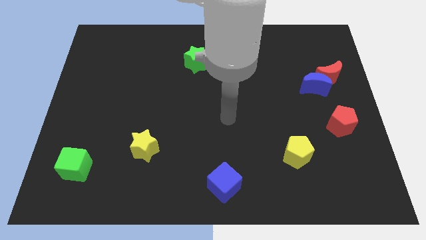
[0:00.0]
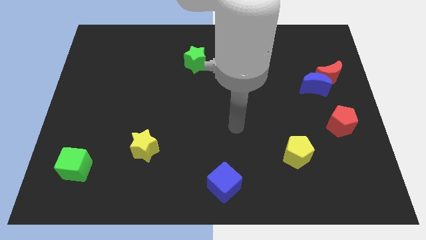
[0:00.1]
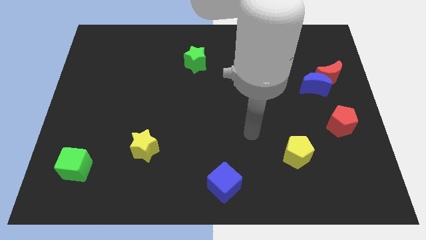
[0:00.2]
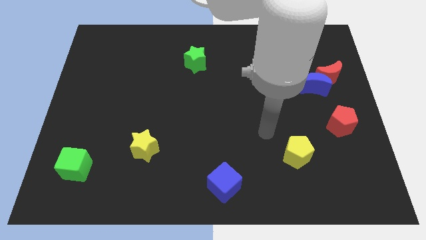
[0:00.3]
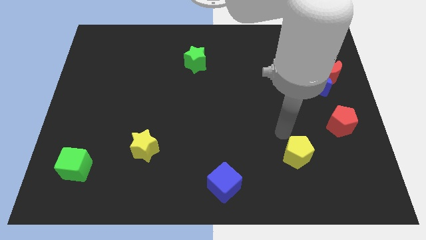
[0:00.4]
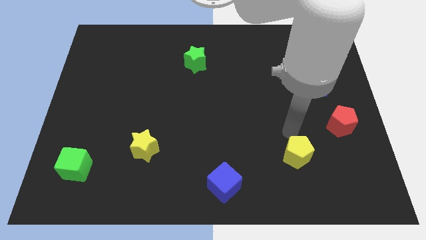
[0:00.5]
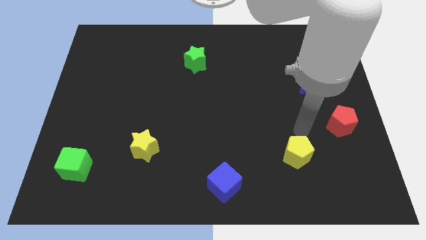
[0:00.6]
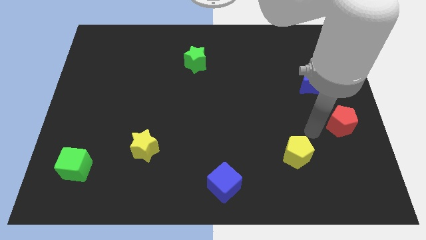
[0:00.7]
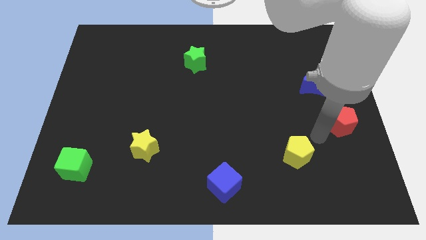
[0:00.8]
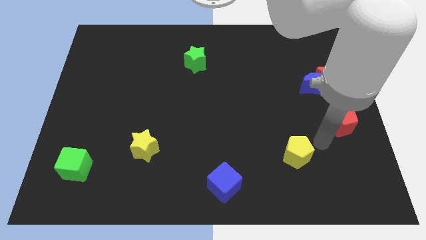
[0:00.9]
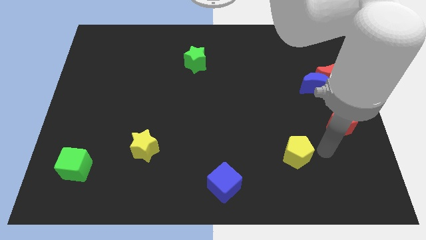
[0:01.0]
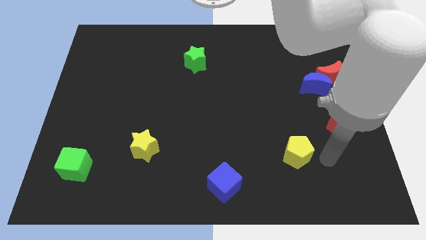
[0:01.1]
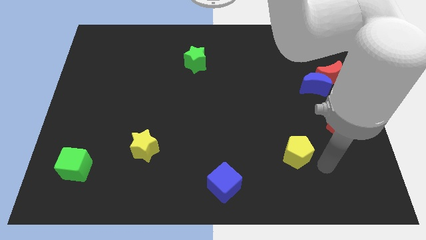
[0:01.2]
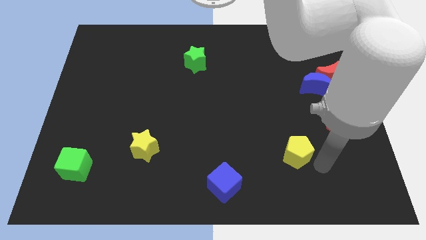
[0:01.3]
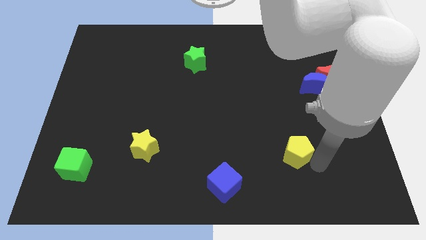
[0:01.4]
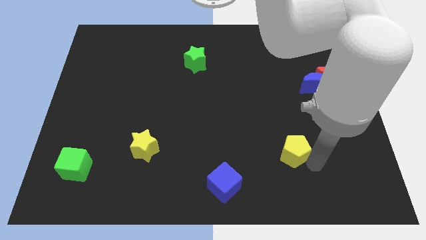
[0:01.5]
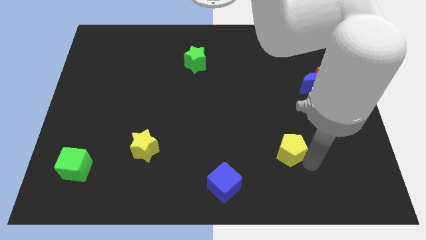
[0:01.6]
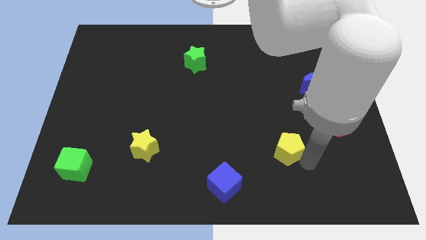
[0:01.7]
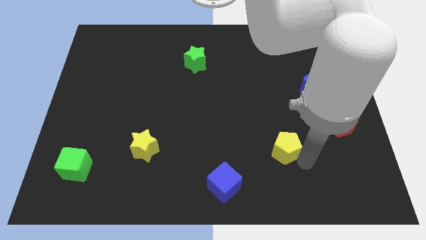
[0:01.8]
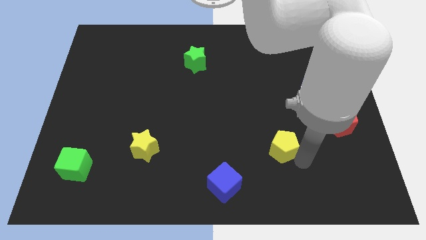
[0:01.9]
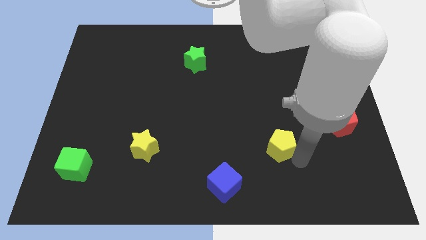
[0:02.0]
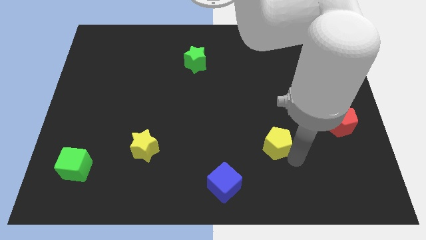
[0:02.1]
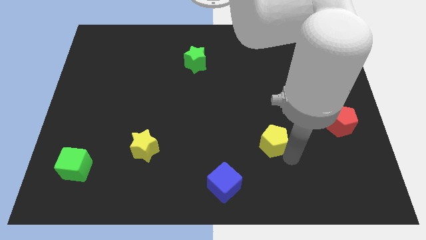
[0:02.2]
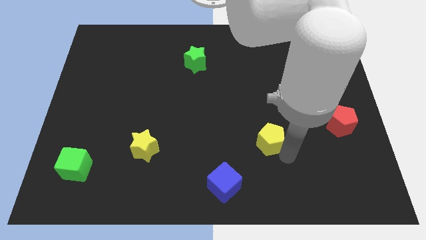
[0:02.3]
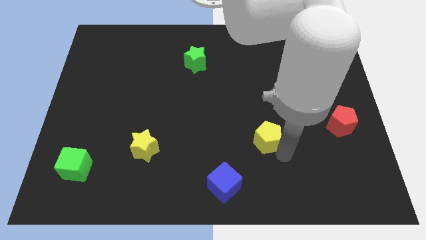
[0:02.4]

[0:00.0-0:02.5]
push the yellow pentagon a bit up and left diagonally

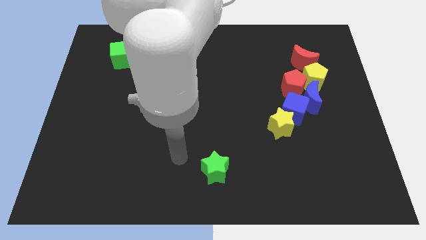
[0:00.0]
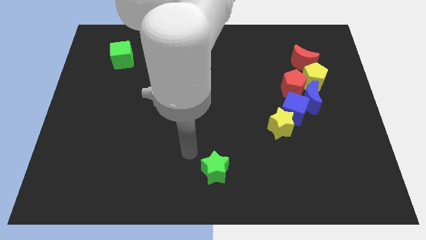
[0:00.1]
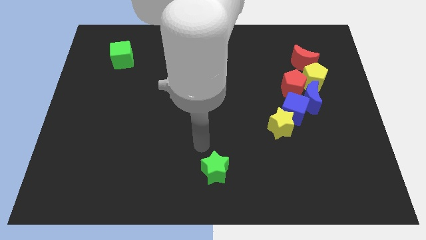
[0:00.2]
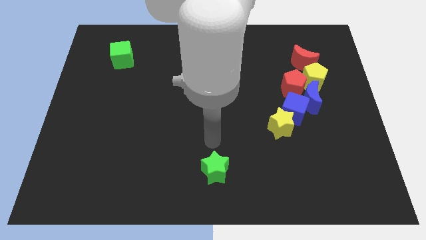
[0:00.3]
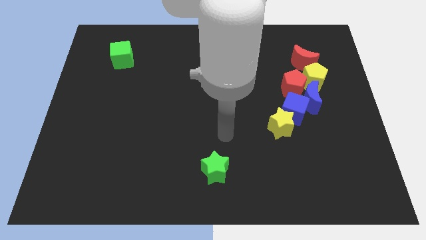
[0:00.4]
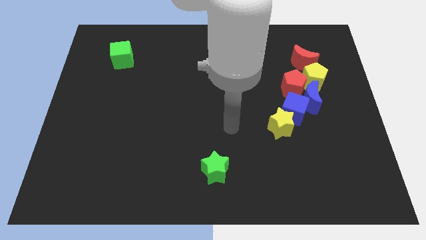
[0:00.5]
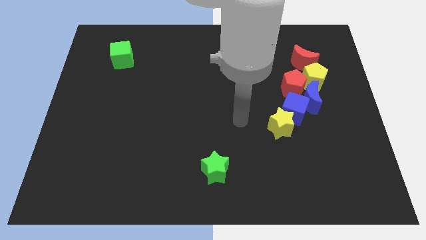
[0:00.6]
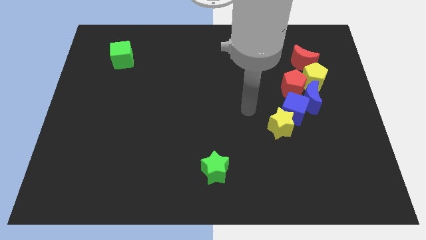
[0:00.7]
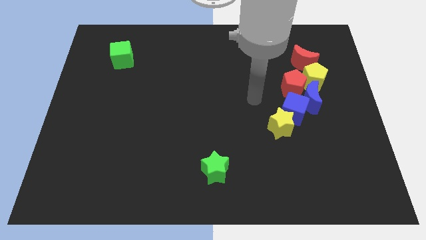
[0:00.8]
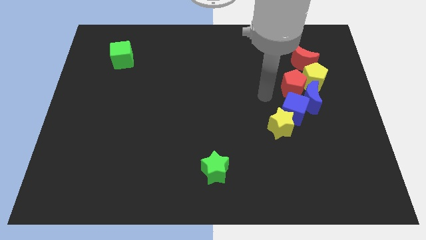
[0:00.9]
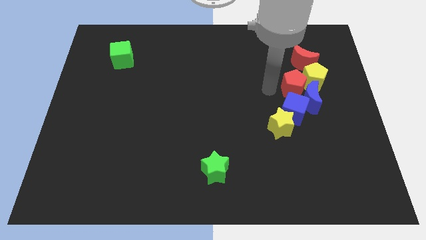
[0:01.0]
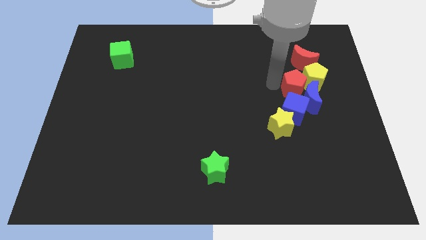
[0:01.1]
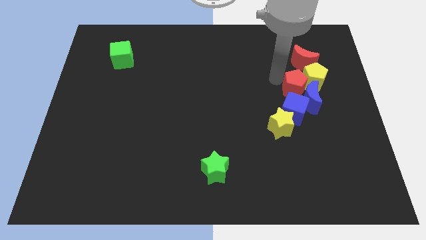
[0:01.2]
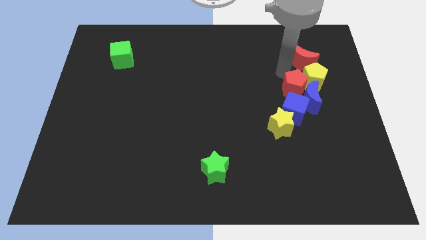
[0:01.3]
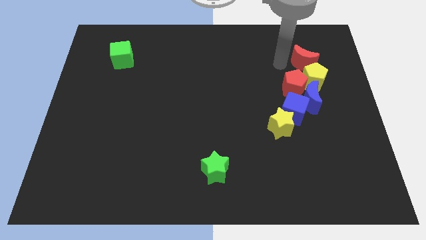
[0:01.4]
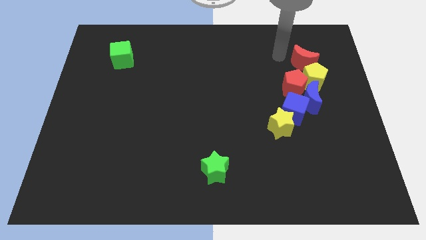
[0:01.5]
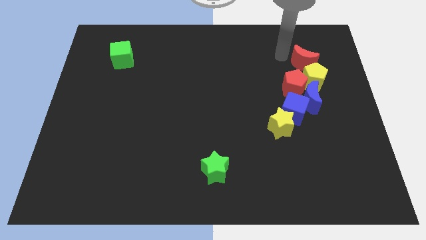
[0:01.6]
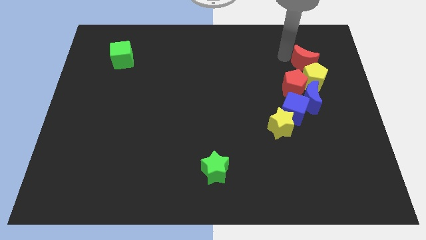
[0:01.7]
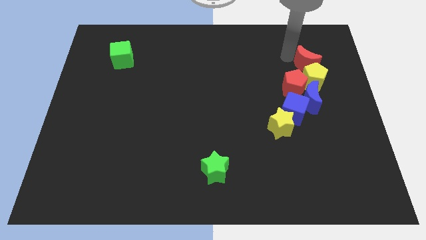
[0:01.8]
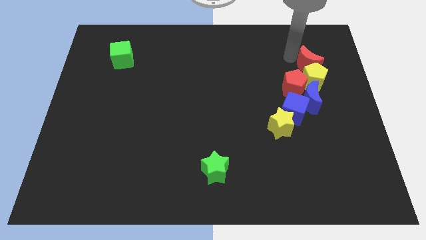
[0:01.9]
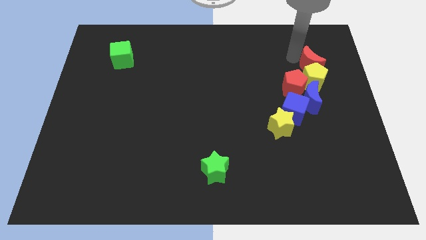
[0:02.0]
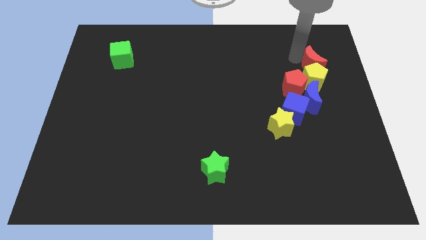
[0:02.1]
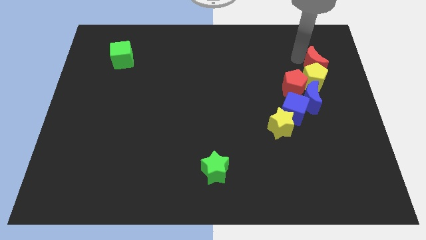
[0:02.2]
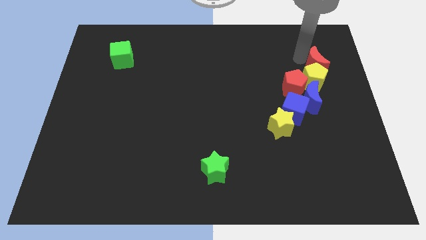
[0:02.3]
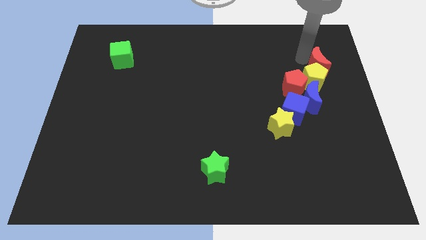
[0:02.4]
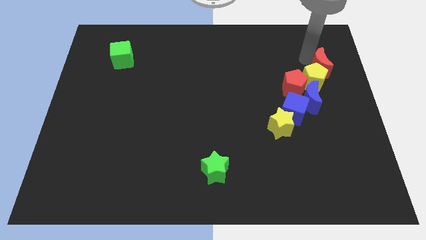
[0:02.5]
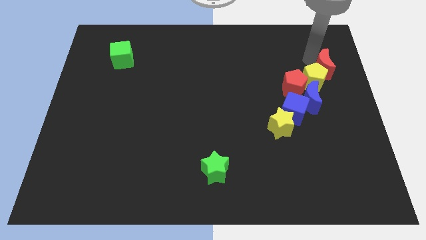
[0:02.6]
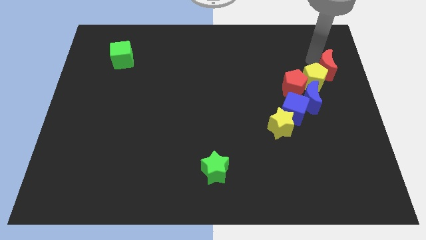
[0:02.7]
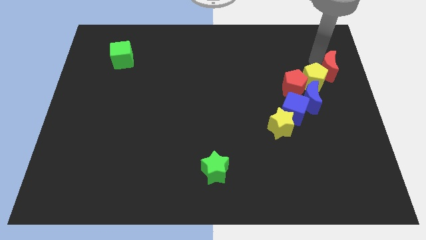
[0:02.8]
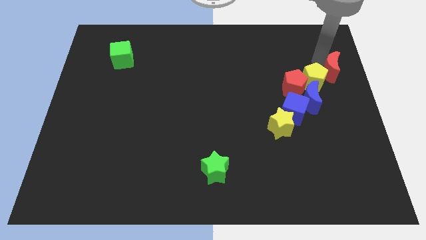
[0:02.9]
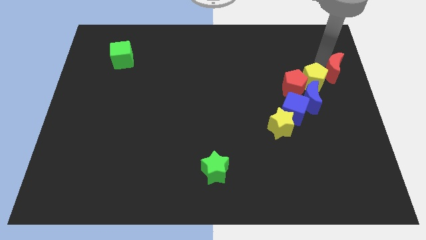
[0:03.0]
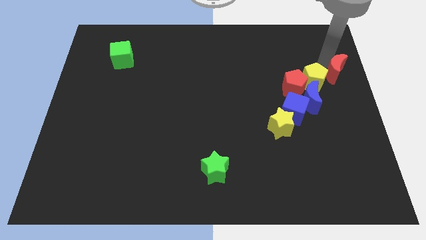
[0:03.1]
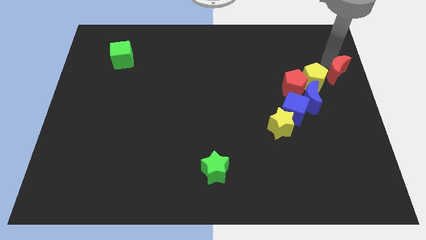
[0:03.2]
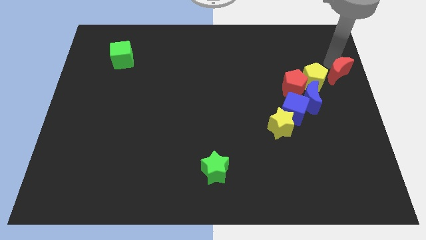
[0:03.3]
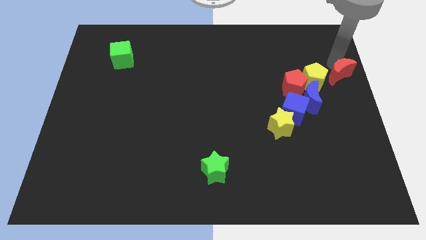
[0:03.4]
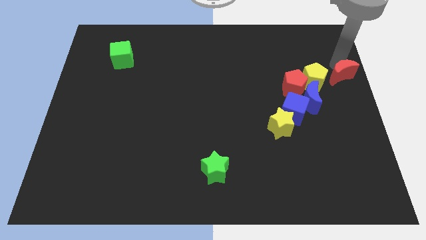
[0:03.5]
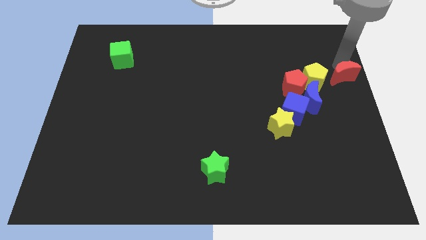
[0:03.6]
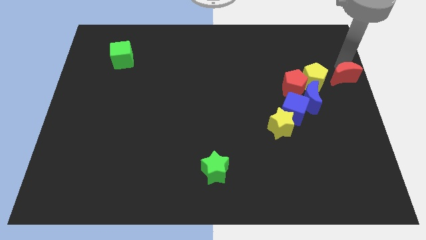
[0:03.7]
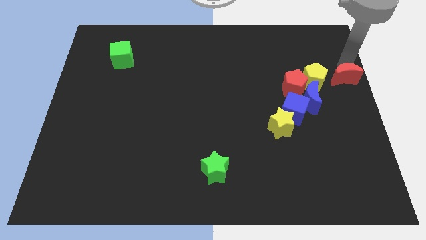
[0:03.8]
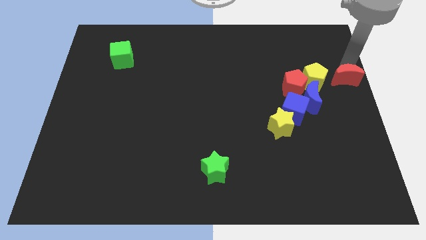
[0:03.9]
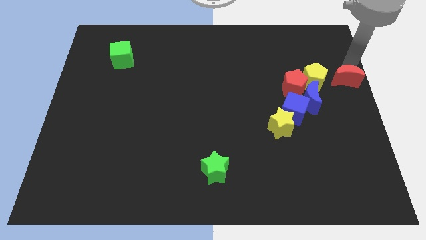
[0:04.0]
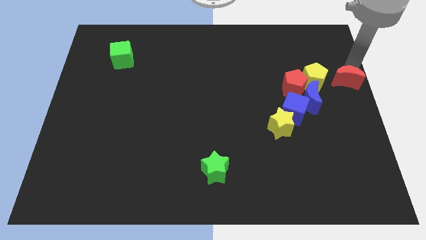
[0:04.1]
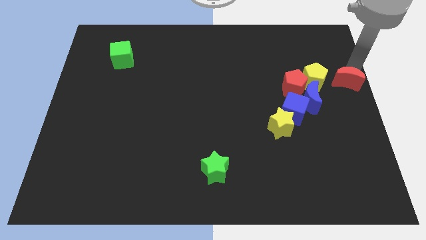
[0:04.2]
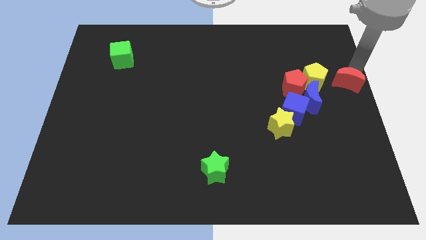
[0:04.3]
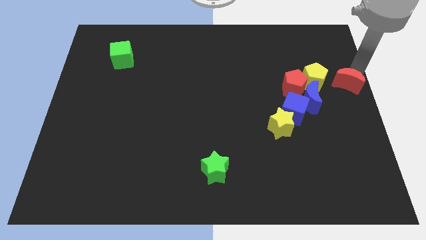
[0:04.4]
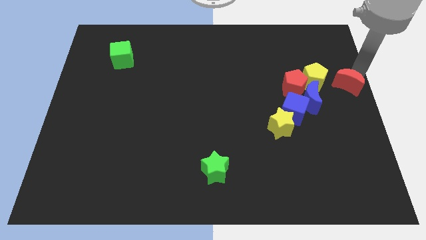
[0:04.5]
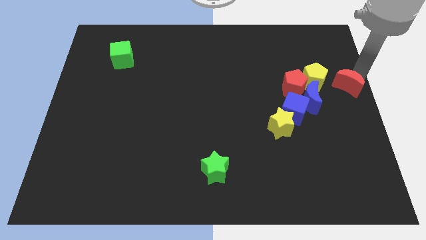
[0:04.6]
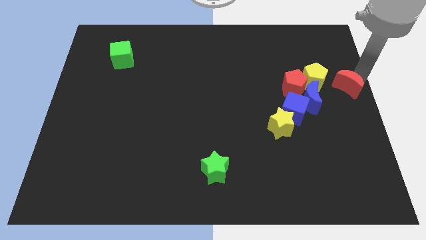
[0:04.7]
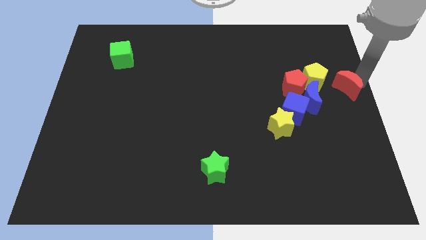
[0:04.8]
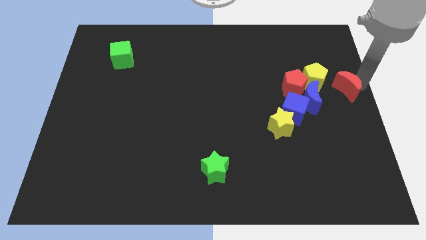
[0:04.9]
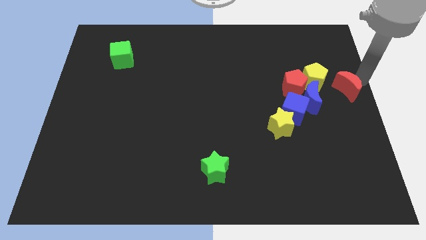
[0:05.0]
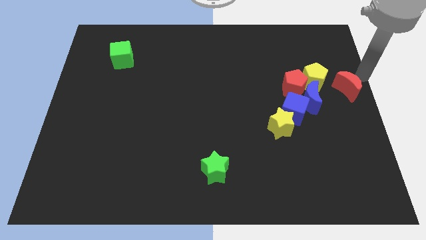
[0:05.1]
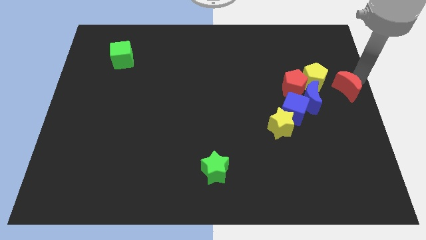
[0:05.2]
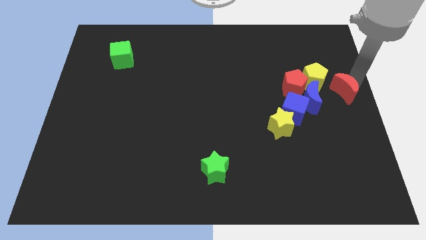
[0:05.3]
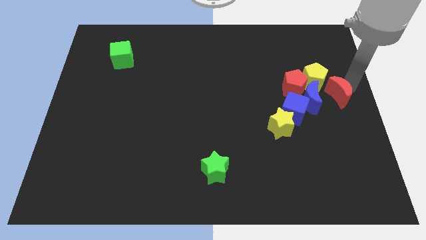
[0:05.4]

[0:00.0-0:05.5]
move the red moon downwards a bit

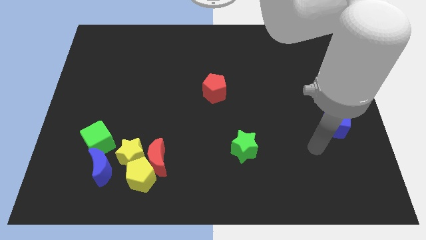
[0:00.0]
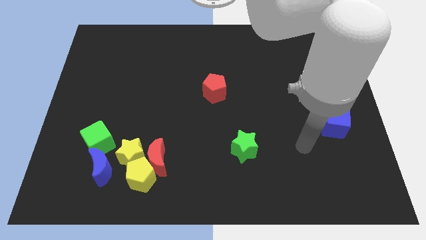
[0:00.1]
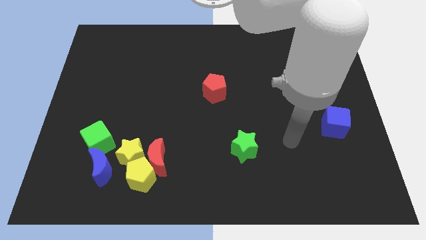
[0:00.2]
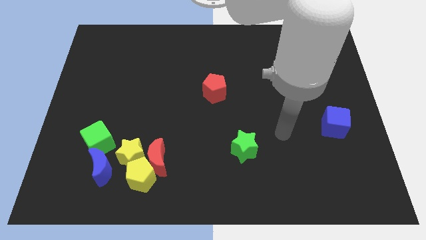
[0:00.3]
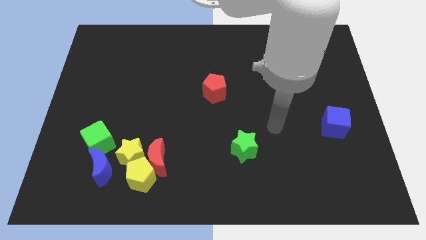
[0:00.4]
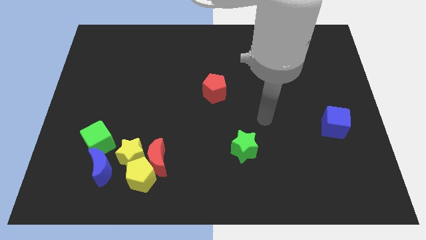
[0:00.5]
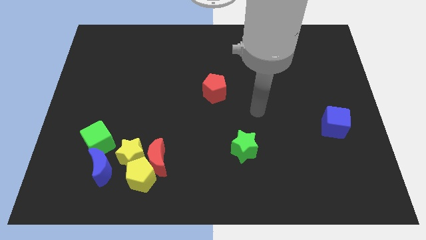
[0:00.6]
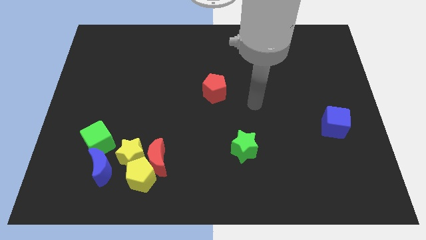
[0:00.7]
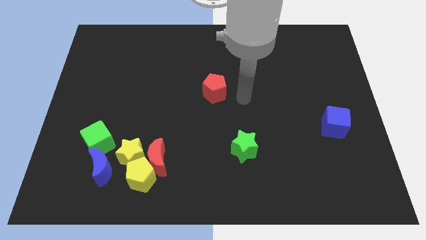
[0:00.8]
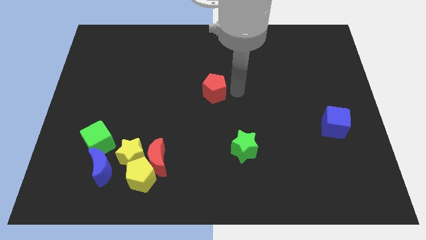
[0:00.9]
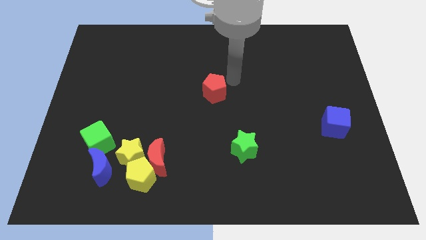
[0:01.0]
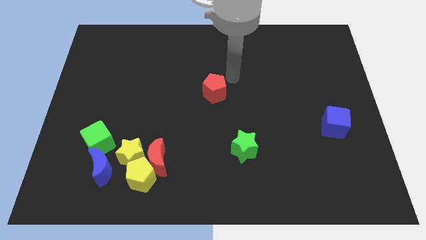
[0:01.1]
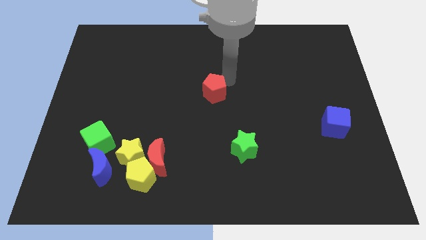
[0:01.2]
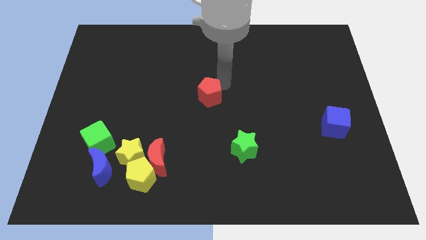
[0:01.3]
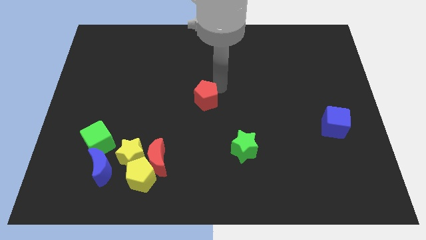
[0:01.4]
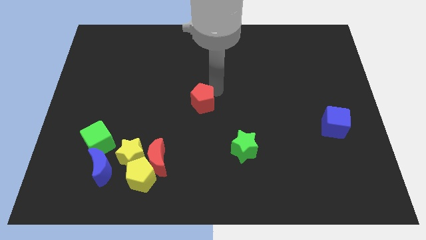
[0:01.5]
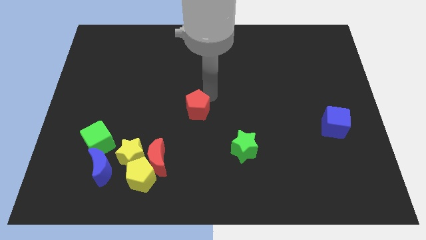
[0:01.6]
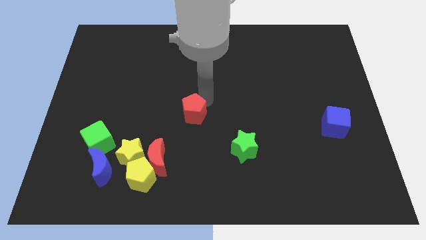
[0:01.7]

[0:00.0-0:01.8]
move the red pentagon diagonally downwards and to the left a little bit
